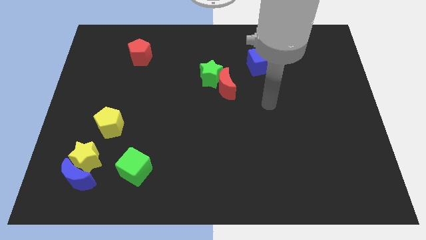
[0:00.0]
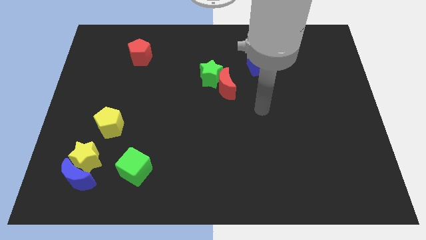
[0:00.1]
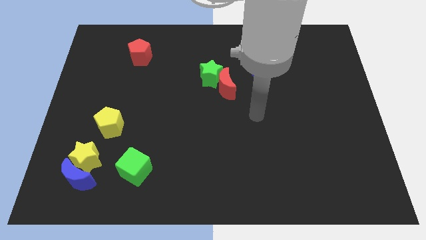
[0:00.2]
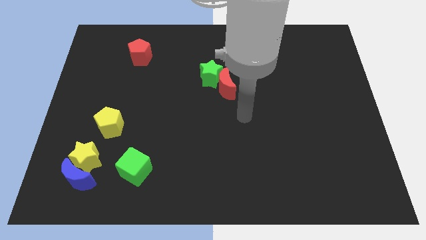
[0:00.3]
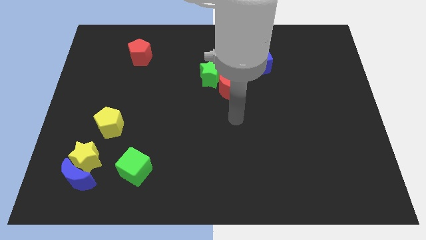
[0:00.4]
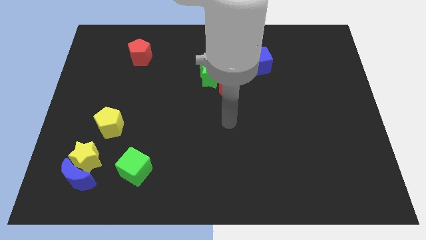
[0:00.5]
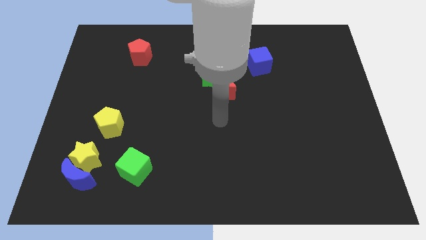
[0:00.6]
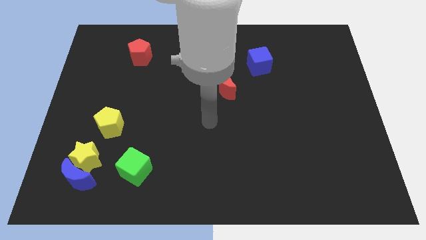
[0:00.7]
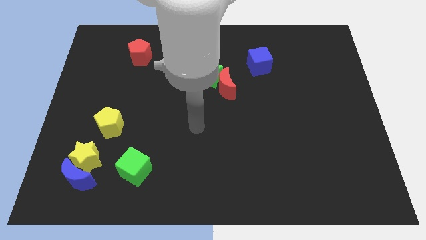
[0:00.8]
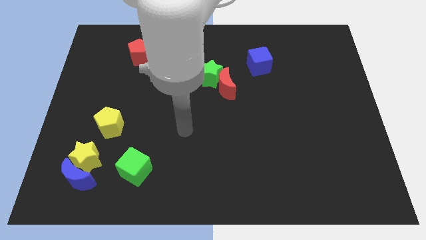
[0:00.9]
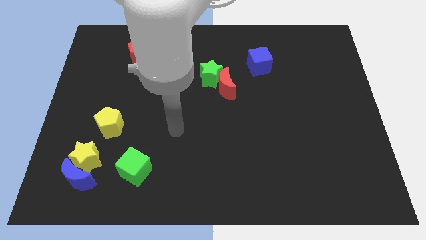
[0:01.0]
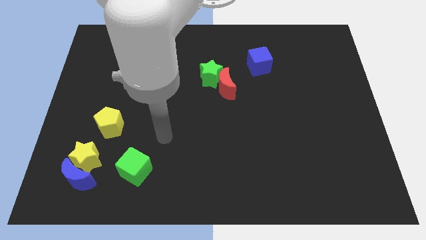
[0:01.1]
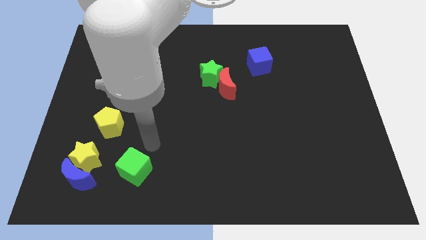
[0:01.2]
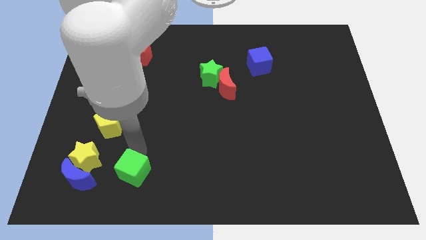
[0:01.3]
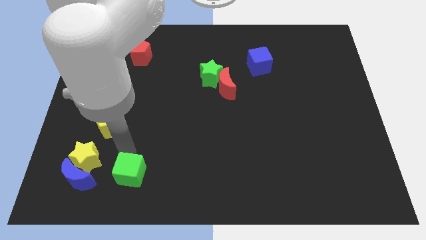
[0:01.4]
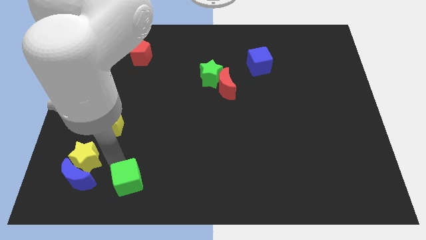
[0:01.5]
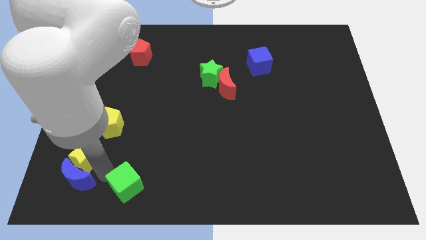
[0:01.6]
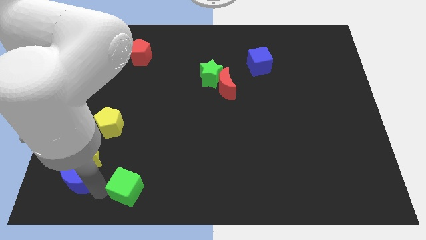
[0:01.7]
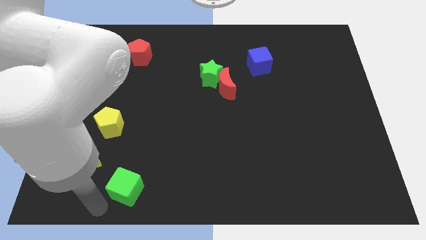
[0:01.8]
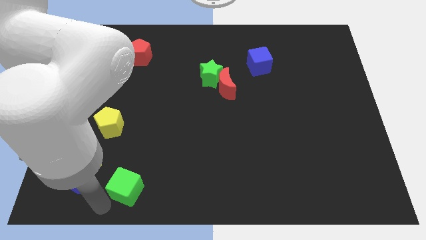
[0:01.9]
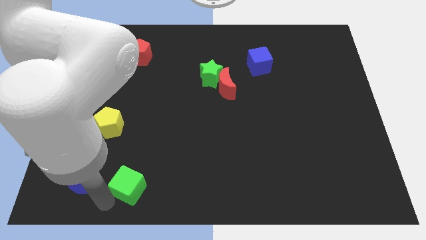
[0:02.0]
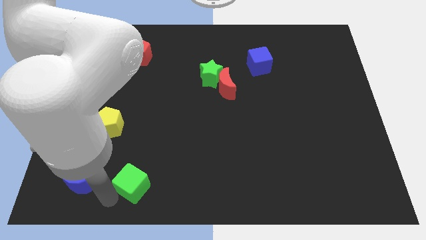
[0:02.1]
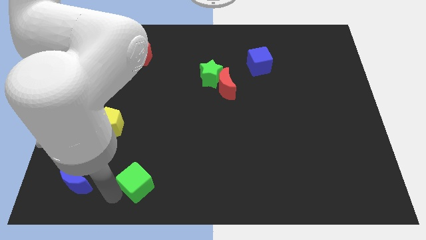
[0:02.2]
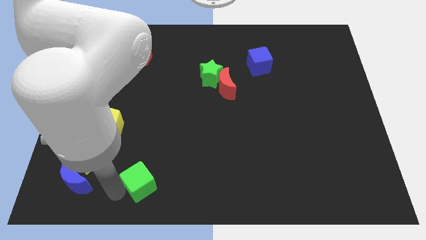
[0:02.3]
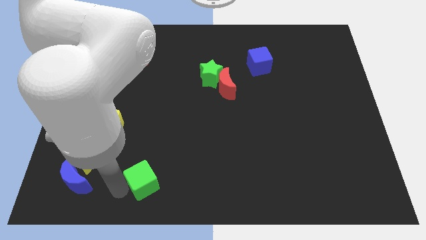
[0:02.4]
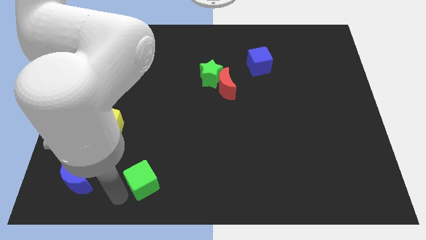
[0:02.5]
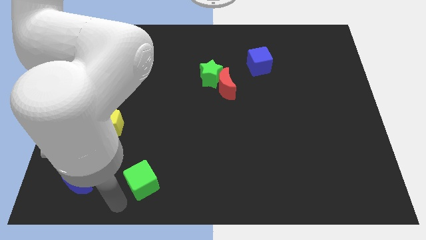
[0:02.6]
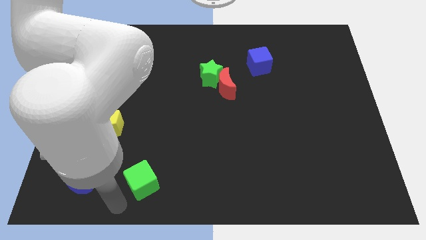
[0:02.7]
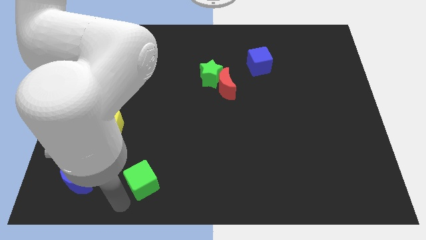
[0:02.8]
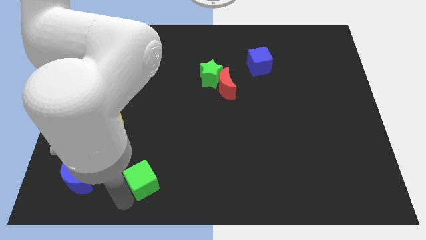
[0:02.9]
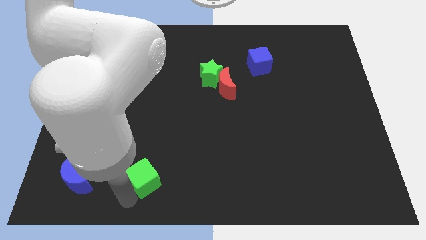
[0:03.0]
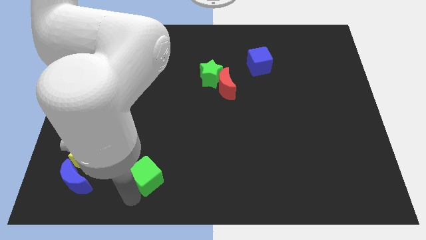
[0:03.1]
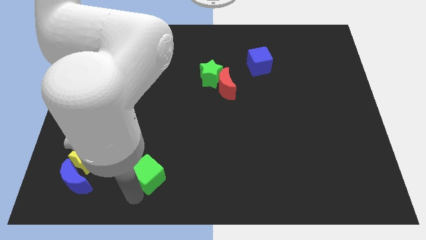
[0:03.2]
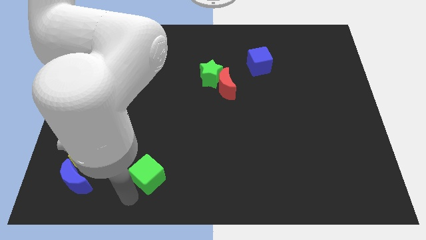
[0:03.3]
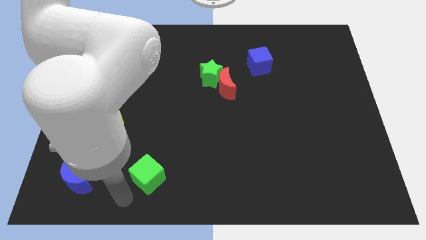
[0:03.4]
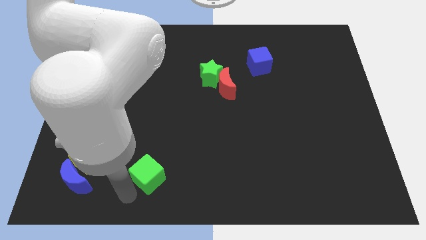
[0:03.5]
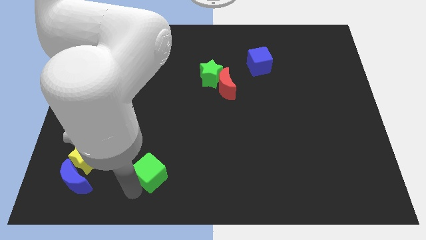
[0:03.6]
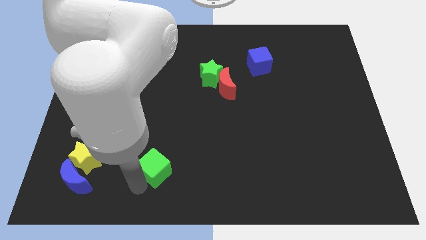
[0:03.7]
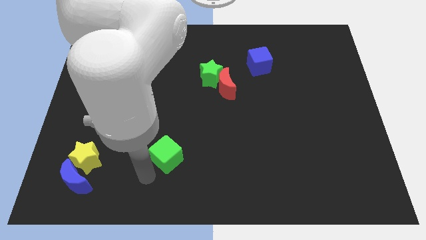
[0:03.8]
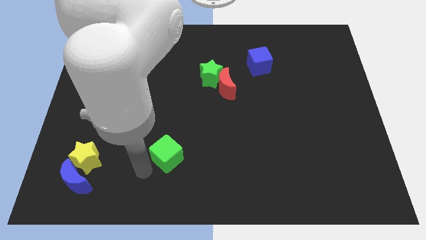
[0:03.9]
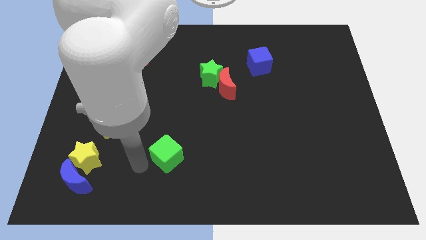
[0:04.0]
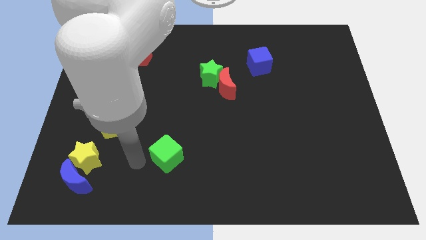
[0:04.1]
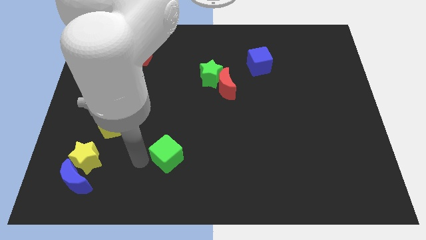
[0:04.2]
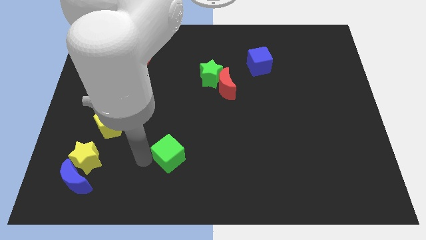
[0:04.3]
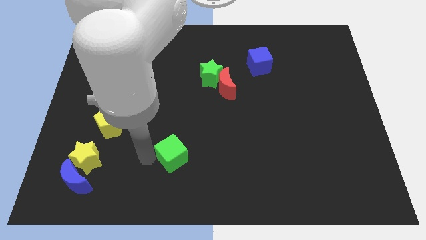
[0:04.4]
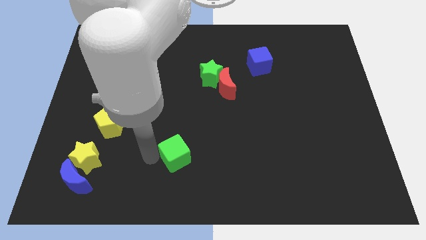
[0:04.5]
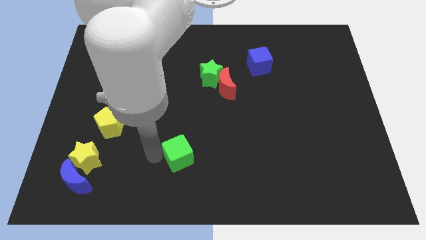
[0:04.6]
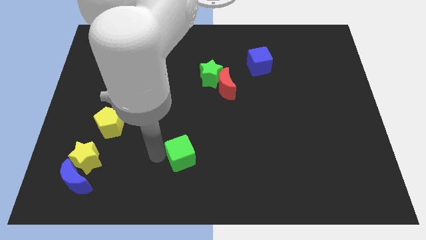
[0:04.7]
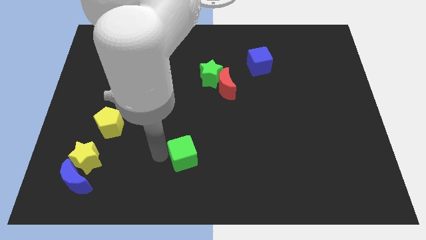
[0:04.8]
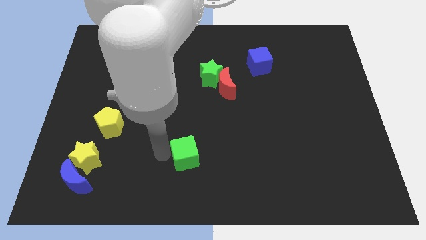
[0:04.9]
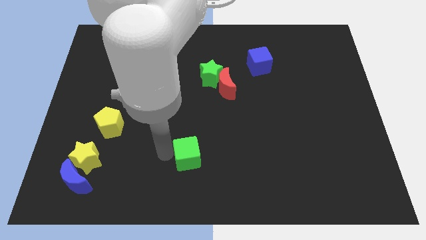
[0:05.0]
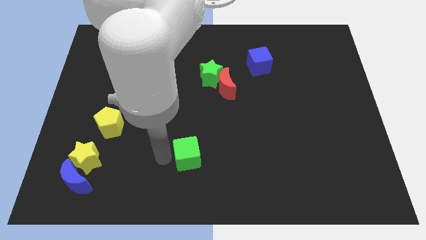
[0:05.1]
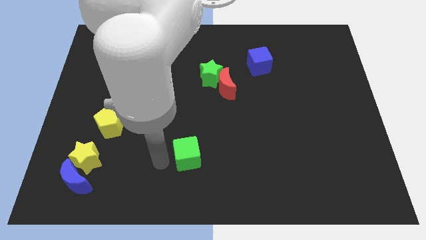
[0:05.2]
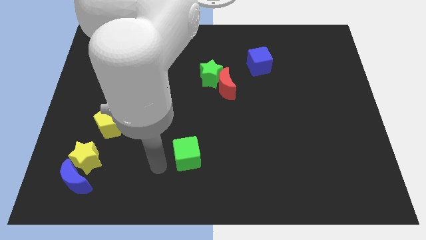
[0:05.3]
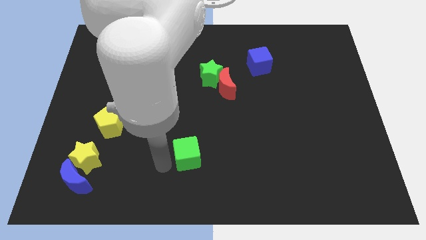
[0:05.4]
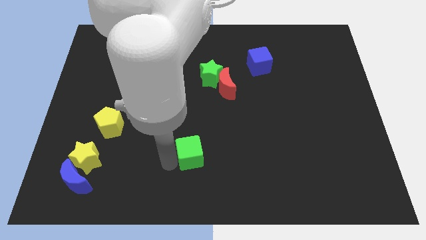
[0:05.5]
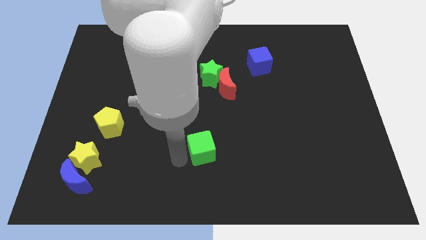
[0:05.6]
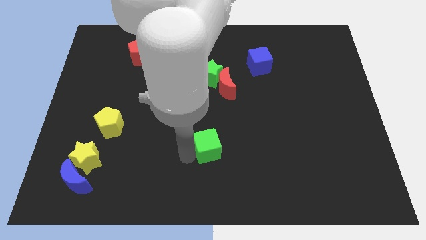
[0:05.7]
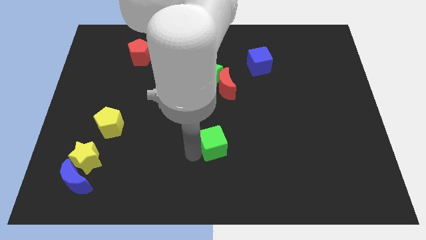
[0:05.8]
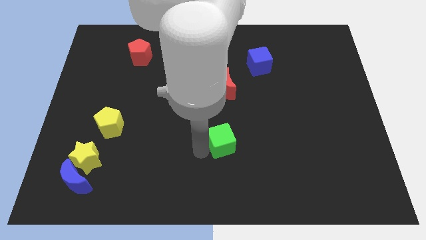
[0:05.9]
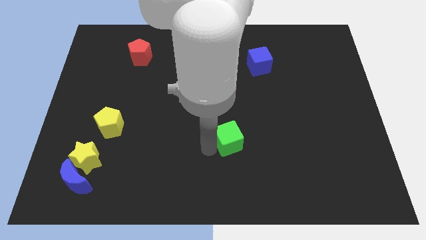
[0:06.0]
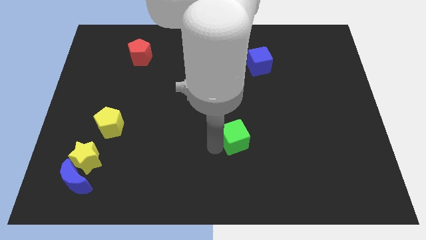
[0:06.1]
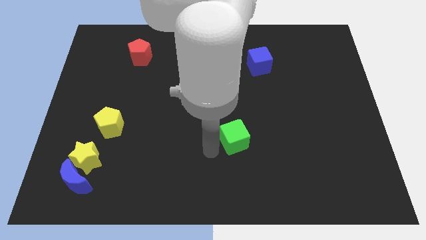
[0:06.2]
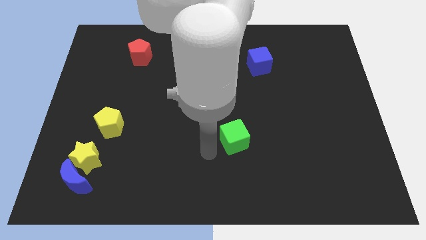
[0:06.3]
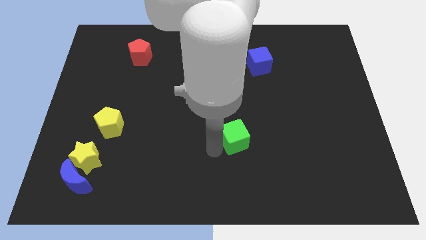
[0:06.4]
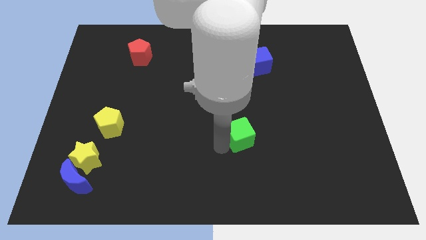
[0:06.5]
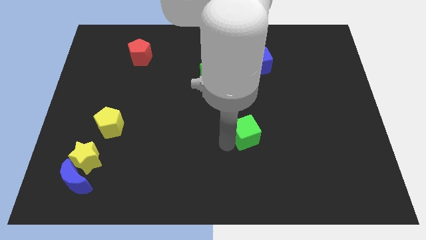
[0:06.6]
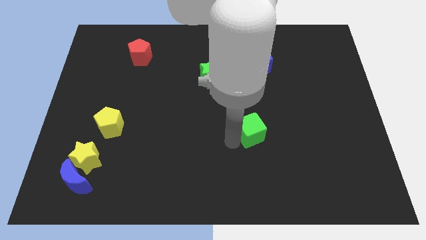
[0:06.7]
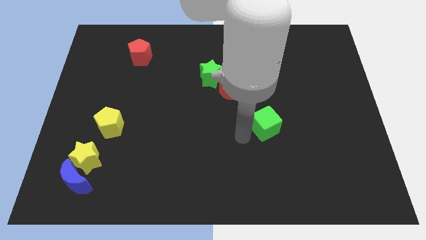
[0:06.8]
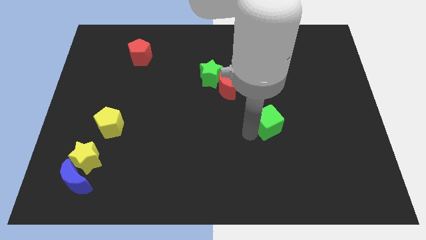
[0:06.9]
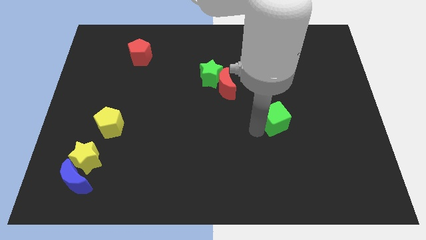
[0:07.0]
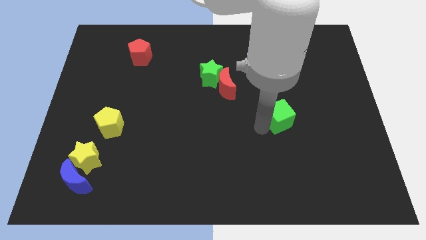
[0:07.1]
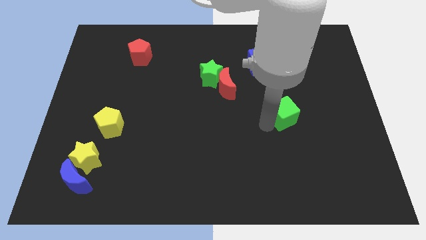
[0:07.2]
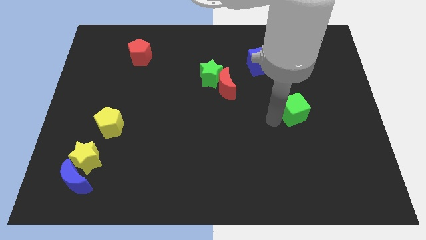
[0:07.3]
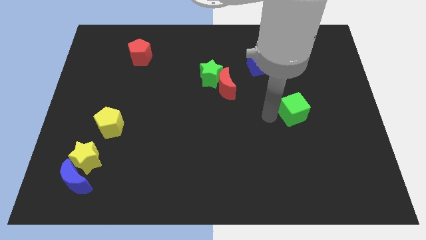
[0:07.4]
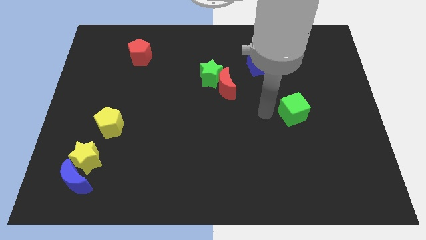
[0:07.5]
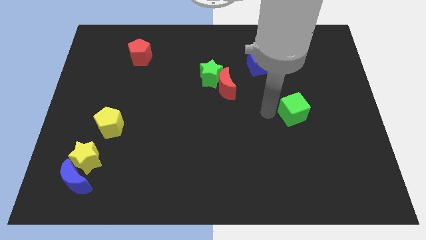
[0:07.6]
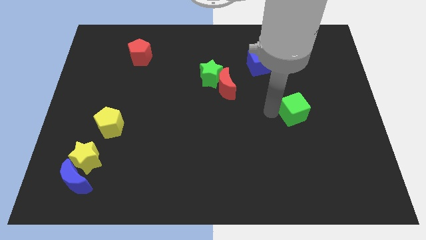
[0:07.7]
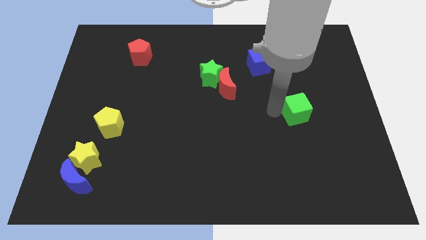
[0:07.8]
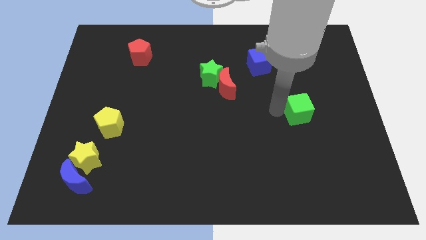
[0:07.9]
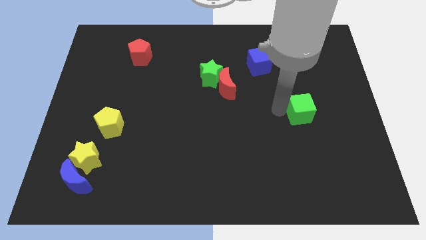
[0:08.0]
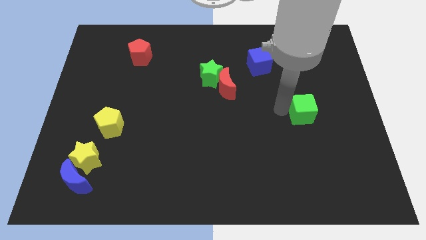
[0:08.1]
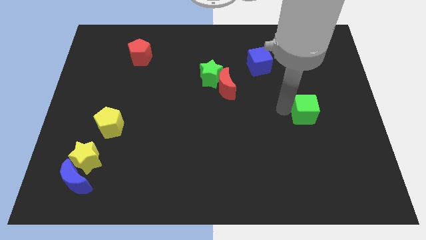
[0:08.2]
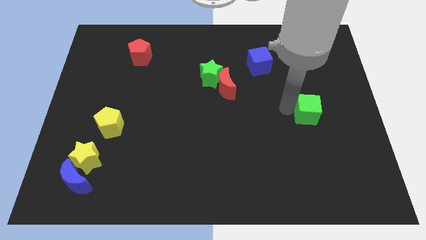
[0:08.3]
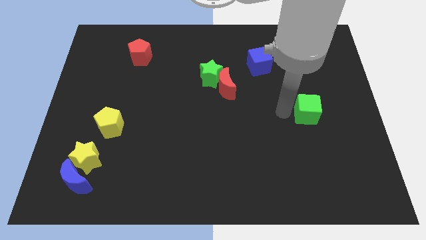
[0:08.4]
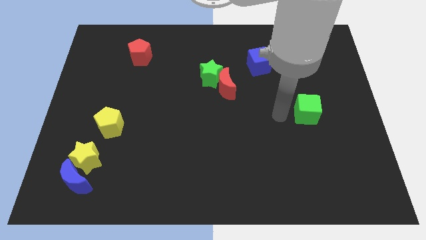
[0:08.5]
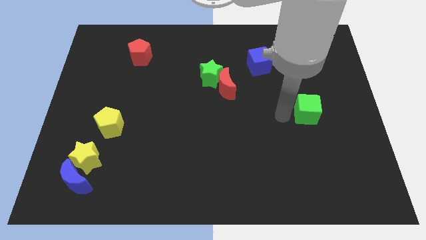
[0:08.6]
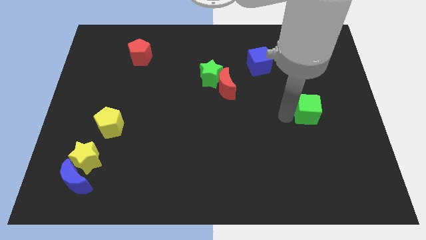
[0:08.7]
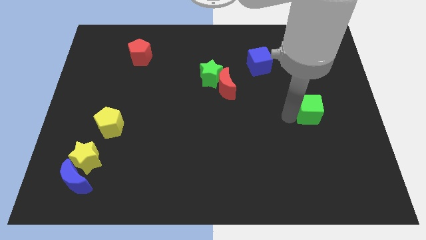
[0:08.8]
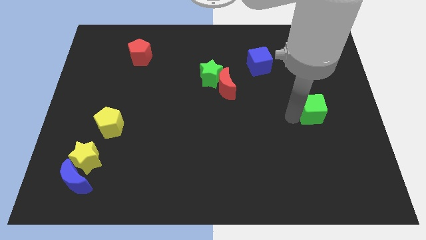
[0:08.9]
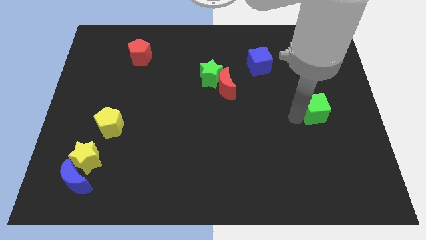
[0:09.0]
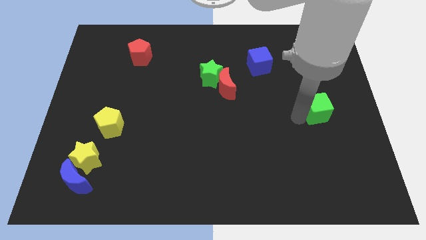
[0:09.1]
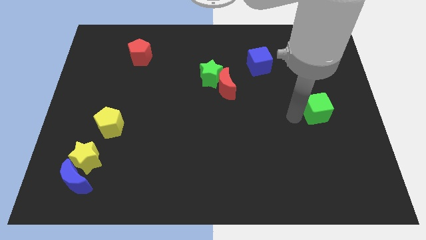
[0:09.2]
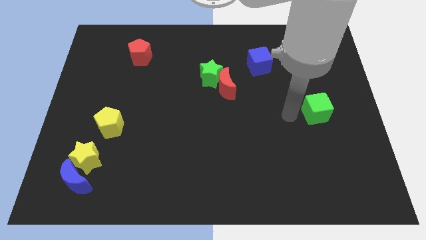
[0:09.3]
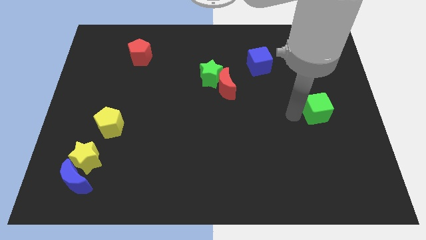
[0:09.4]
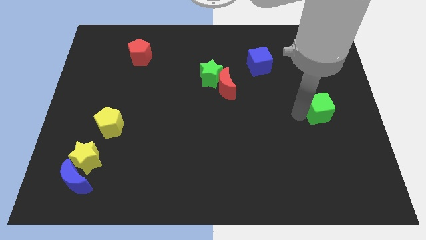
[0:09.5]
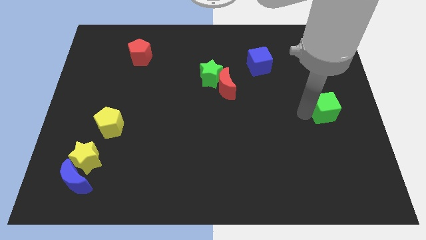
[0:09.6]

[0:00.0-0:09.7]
slide the green cube to the right side of the board
